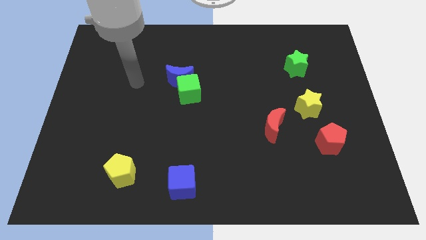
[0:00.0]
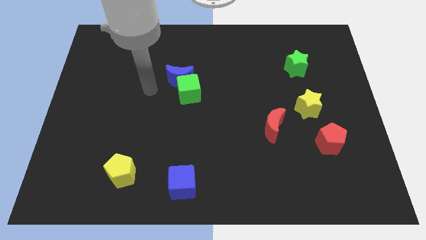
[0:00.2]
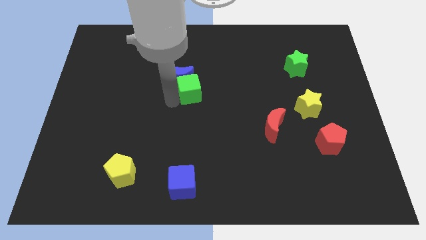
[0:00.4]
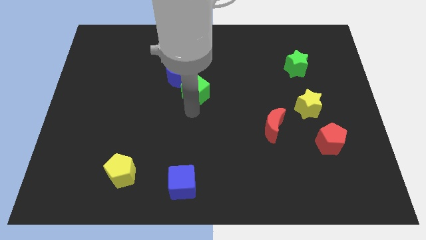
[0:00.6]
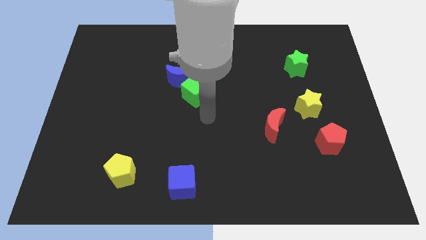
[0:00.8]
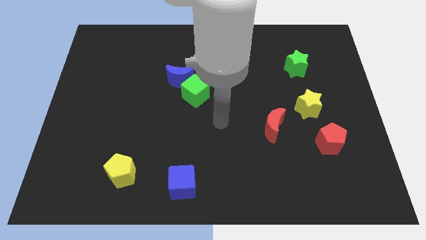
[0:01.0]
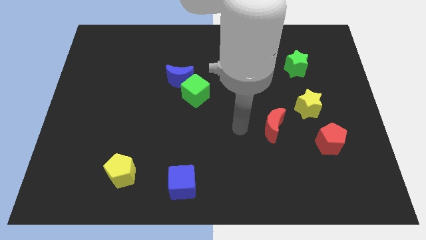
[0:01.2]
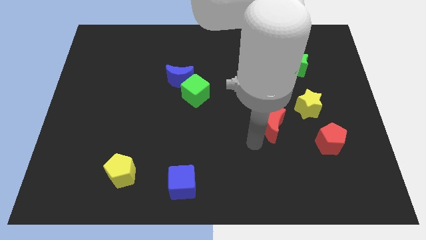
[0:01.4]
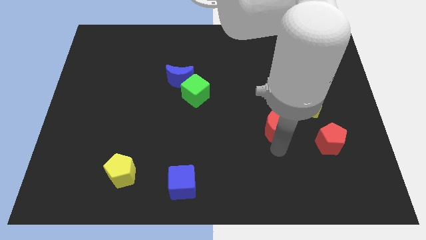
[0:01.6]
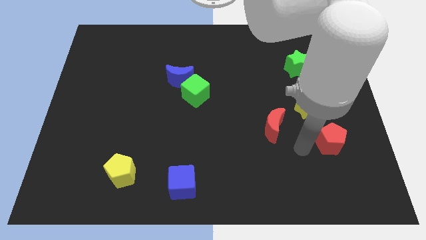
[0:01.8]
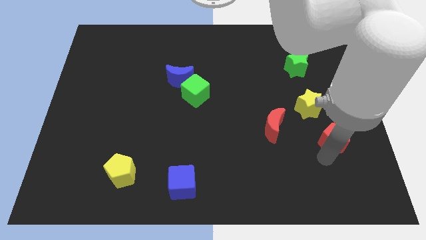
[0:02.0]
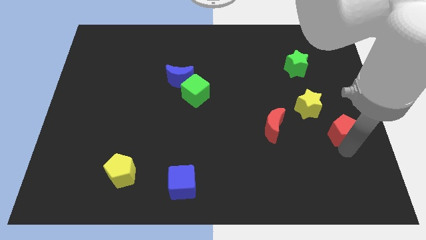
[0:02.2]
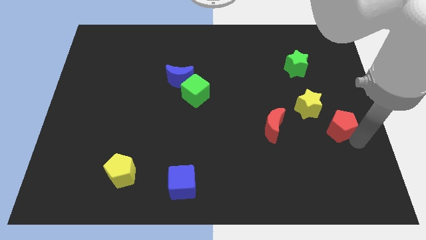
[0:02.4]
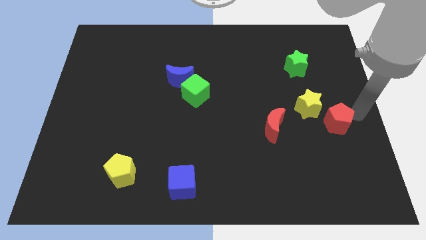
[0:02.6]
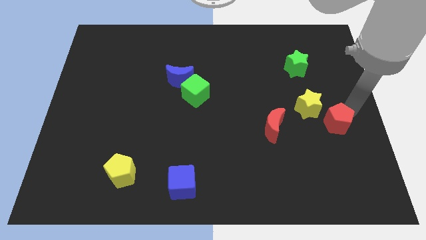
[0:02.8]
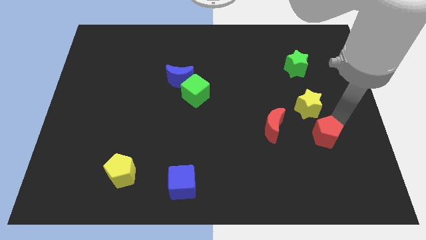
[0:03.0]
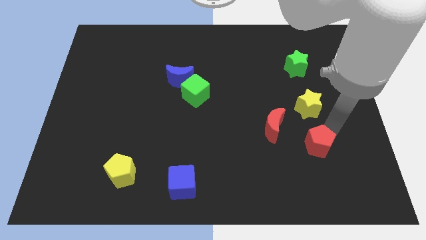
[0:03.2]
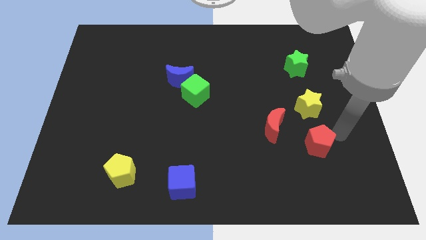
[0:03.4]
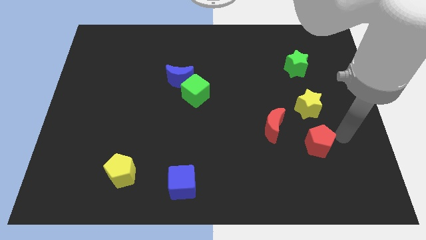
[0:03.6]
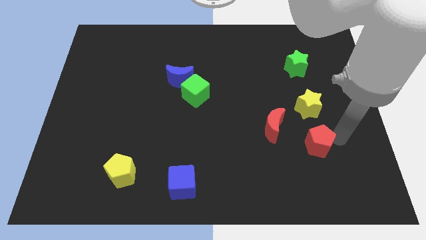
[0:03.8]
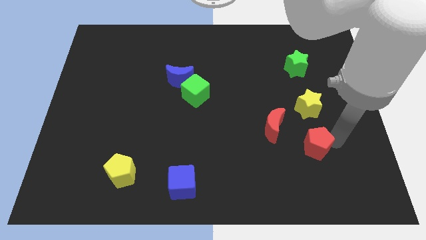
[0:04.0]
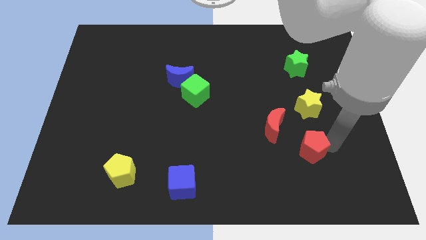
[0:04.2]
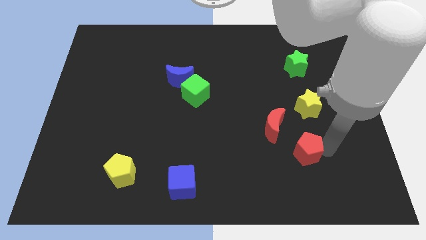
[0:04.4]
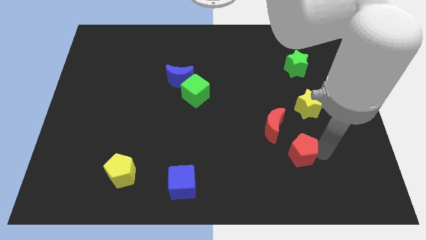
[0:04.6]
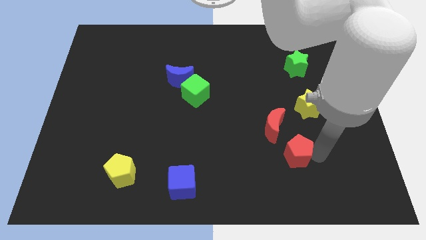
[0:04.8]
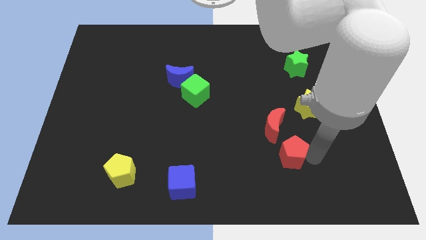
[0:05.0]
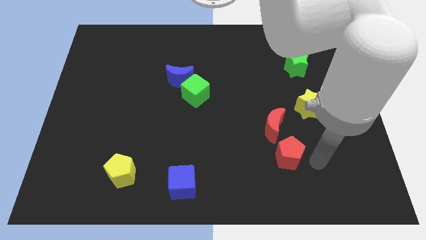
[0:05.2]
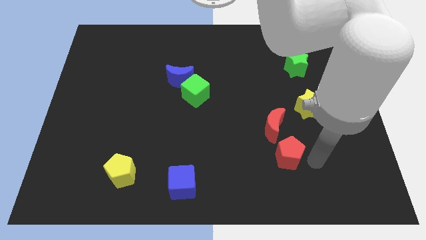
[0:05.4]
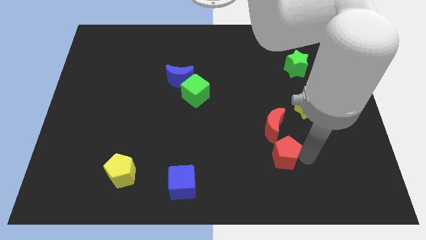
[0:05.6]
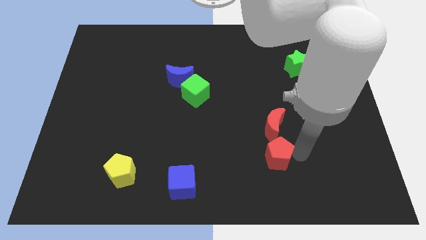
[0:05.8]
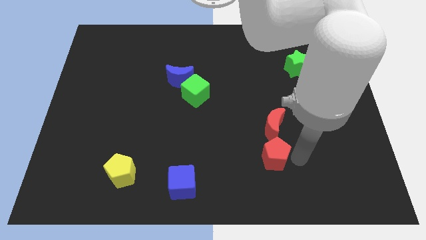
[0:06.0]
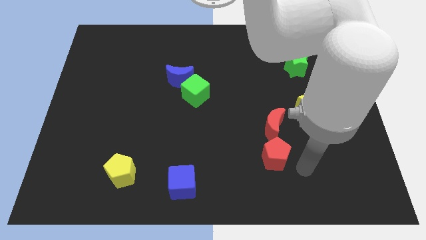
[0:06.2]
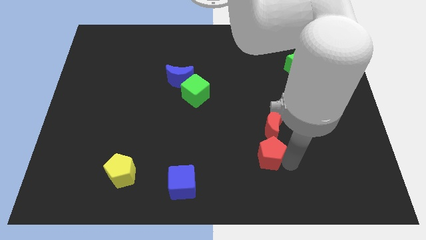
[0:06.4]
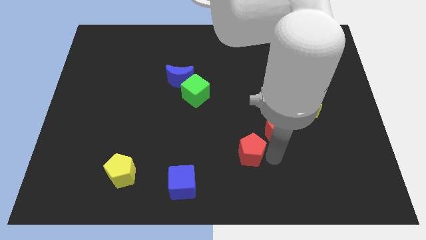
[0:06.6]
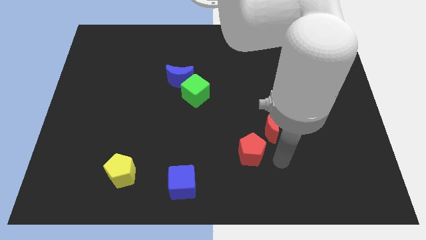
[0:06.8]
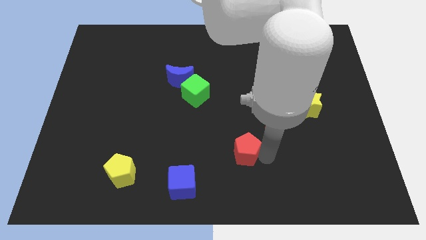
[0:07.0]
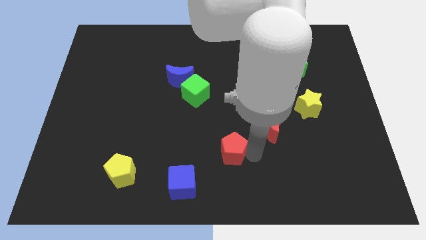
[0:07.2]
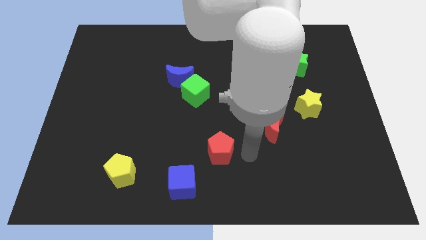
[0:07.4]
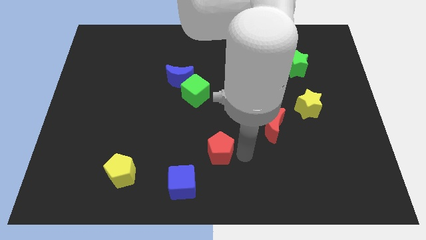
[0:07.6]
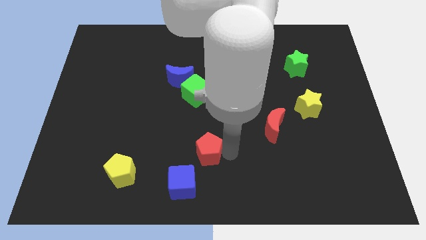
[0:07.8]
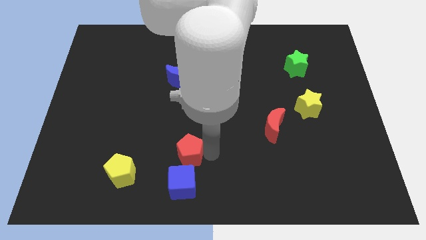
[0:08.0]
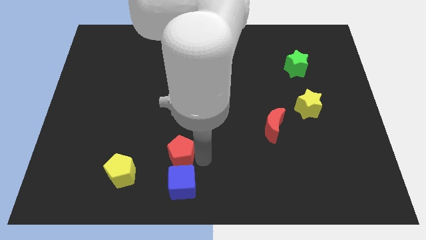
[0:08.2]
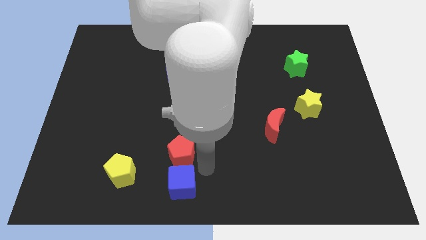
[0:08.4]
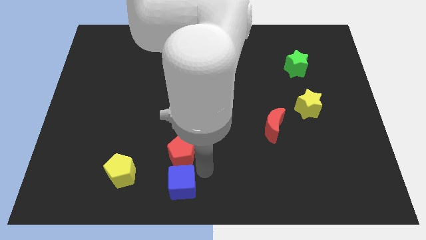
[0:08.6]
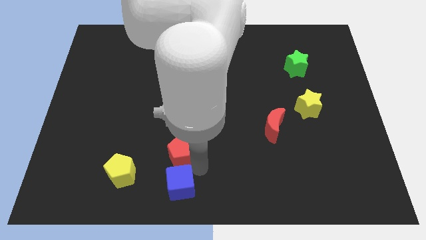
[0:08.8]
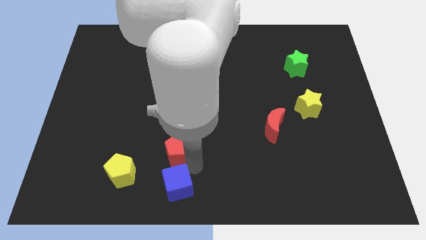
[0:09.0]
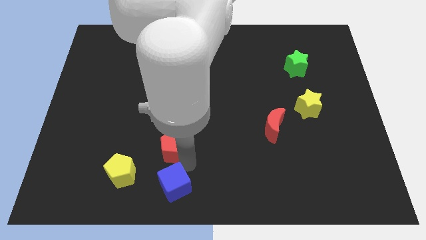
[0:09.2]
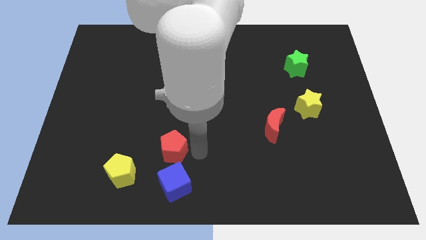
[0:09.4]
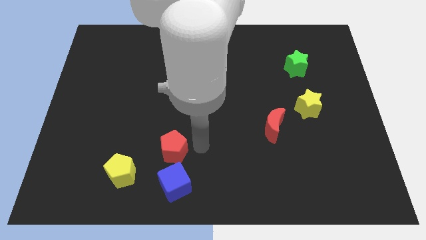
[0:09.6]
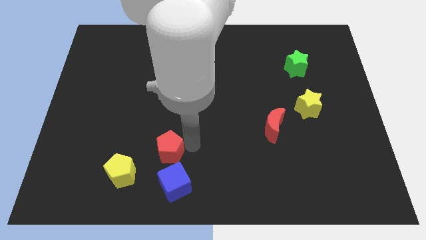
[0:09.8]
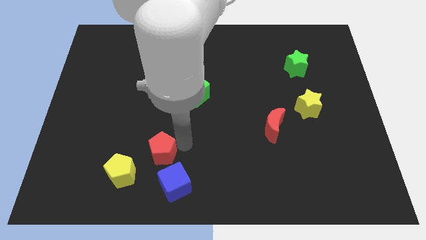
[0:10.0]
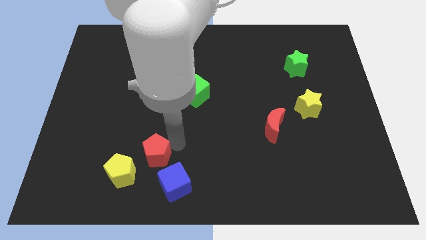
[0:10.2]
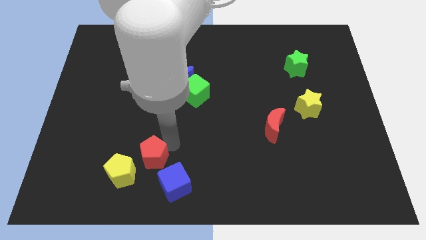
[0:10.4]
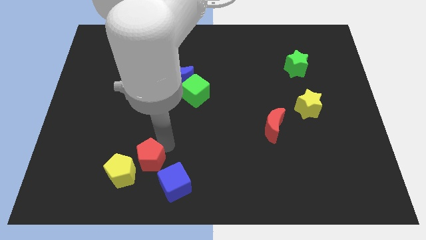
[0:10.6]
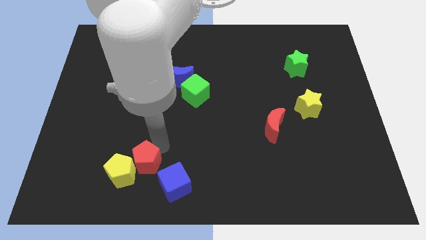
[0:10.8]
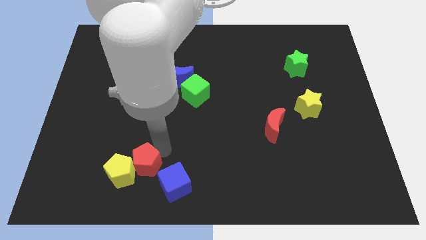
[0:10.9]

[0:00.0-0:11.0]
put the red pentagon just left of the blue cube

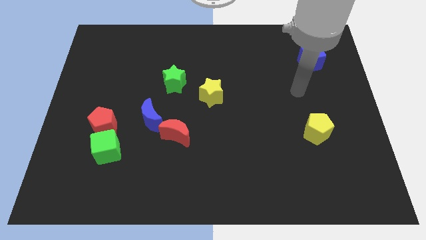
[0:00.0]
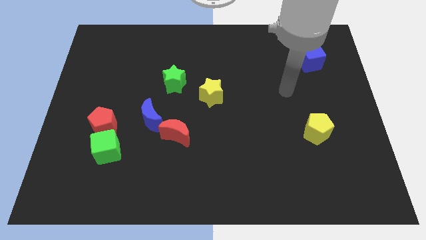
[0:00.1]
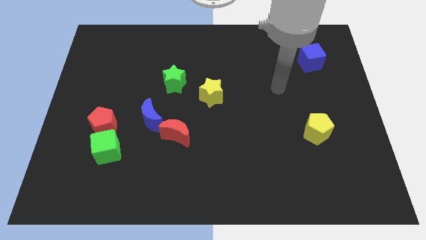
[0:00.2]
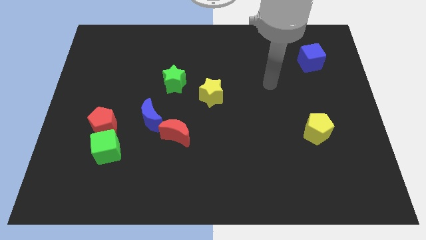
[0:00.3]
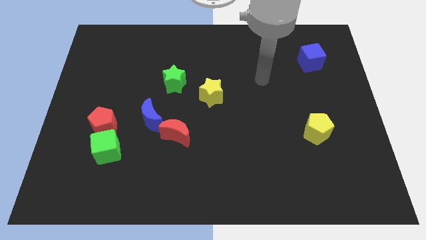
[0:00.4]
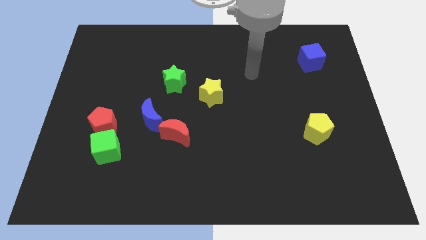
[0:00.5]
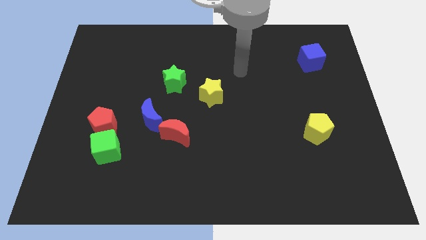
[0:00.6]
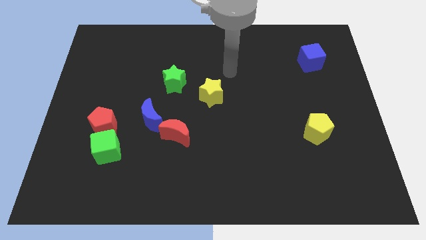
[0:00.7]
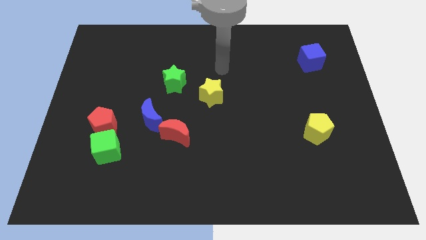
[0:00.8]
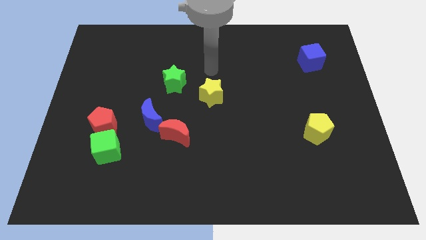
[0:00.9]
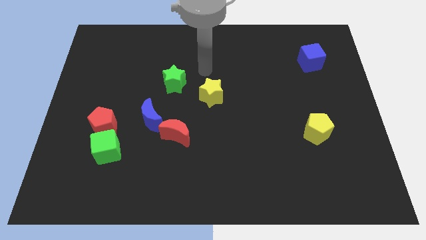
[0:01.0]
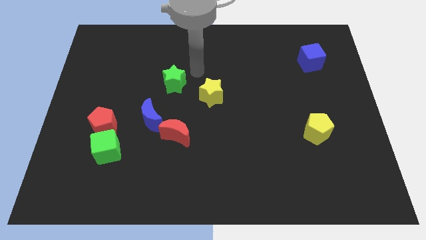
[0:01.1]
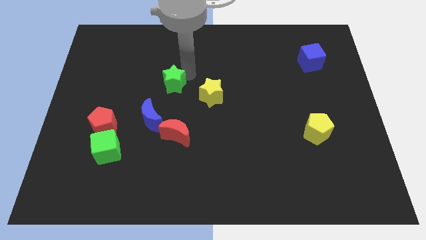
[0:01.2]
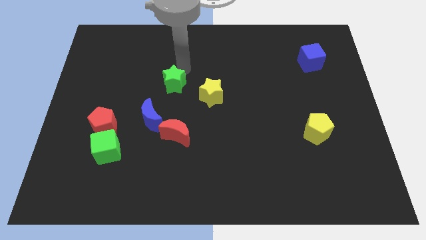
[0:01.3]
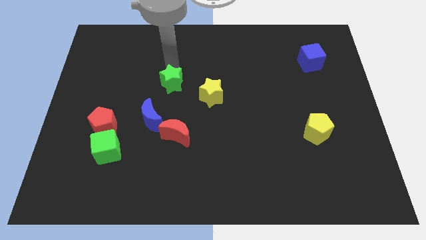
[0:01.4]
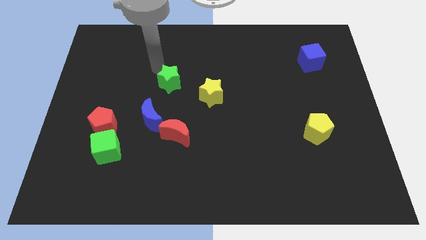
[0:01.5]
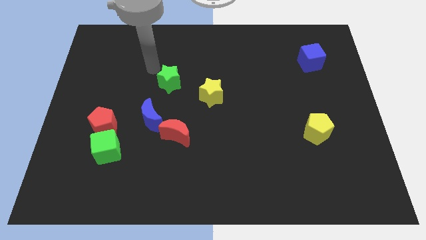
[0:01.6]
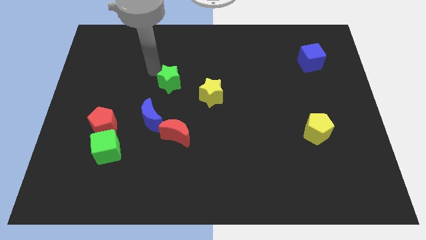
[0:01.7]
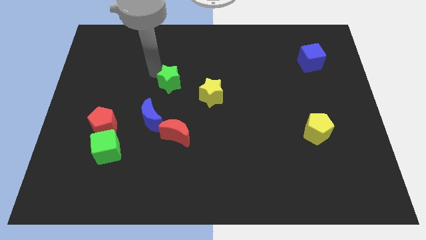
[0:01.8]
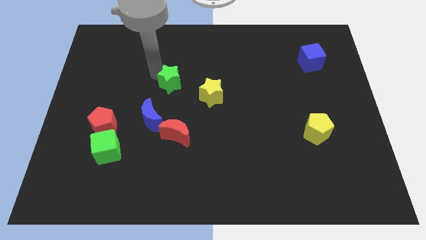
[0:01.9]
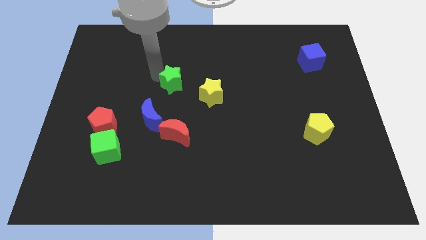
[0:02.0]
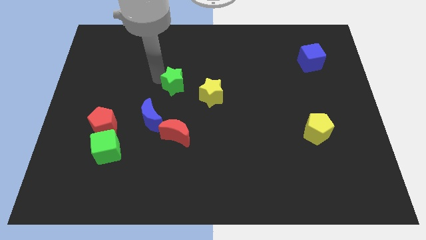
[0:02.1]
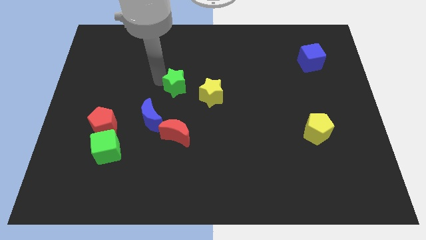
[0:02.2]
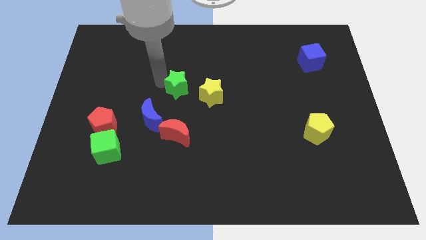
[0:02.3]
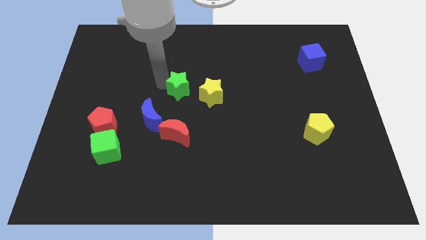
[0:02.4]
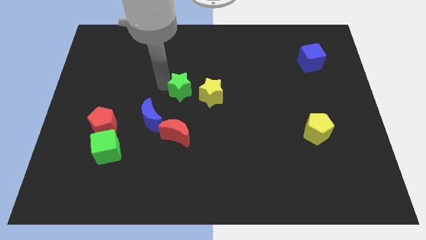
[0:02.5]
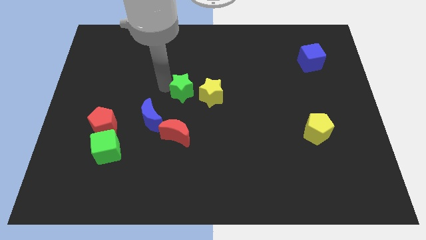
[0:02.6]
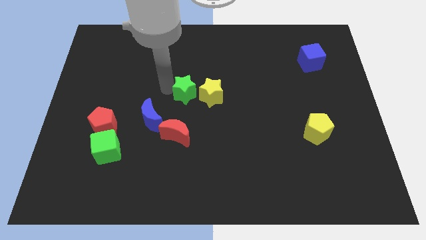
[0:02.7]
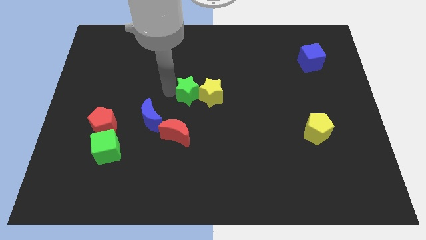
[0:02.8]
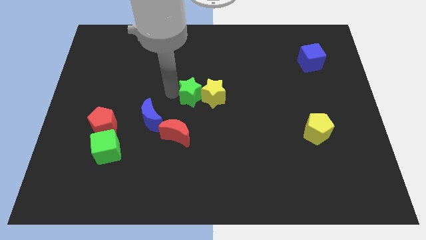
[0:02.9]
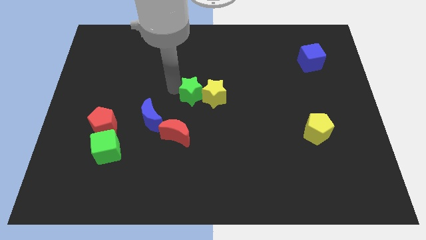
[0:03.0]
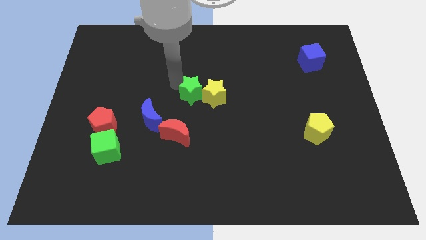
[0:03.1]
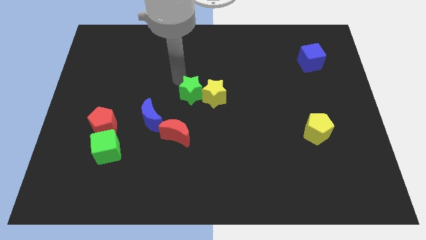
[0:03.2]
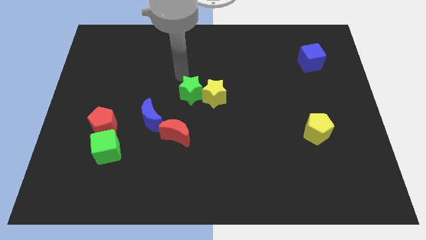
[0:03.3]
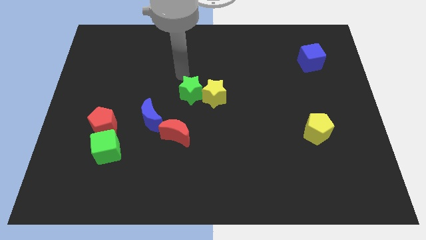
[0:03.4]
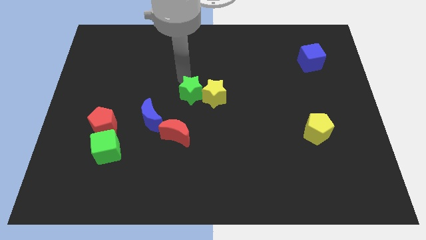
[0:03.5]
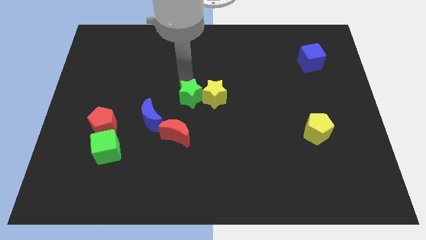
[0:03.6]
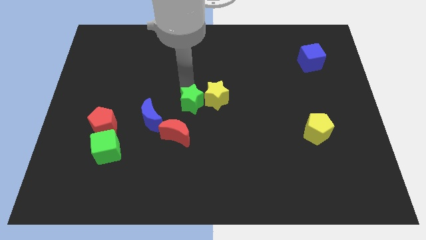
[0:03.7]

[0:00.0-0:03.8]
move the green star diagonally up and to the right of the red moon
